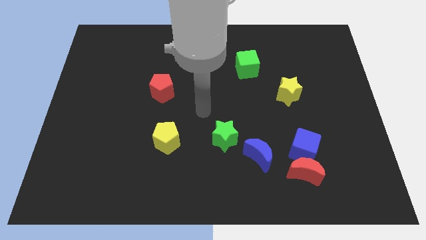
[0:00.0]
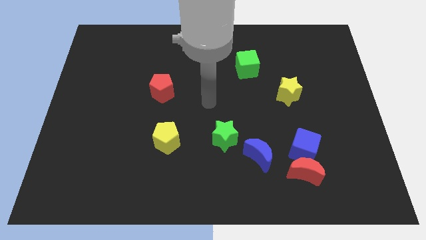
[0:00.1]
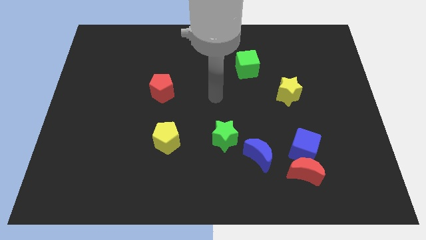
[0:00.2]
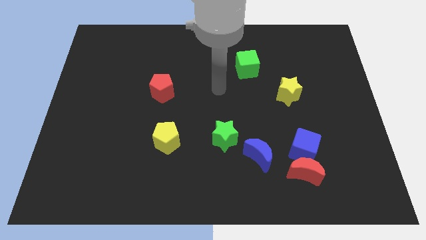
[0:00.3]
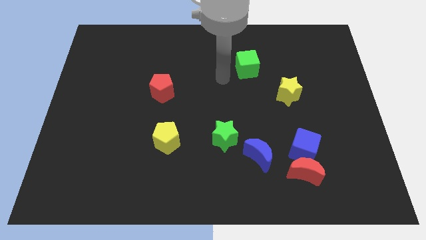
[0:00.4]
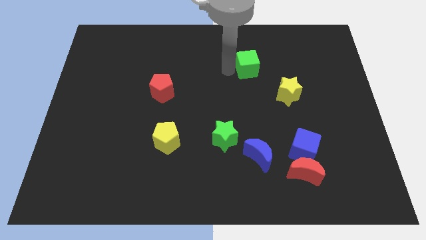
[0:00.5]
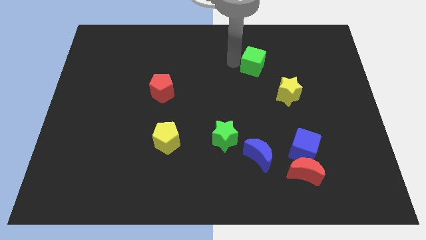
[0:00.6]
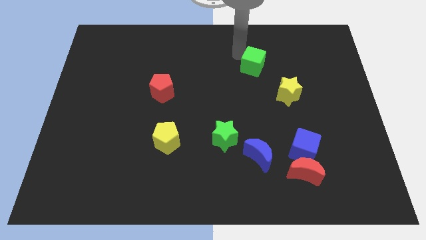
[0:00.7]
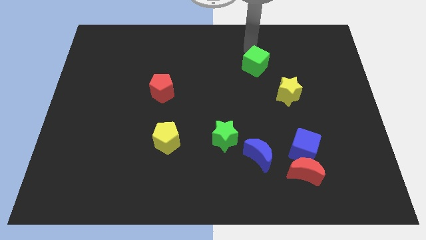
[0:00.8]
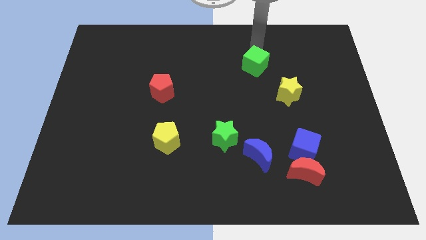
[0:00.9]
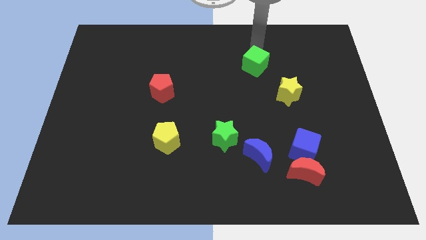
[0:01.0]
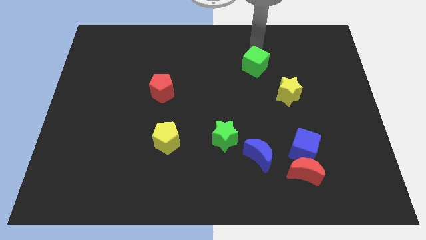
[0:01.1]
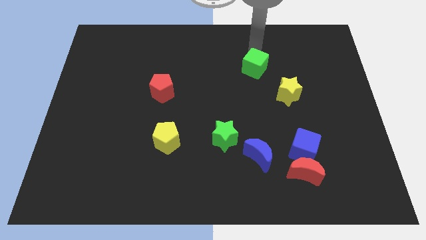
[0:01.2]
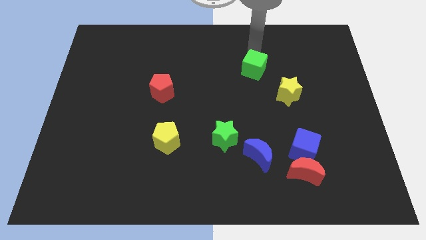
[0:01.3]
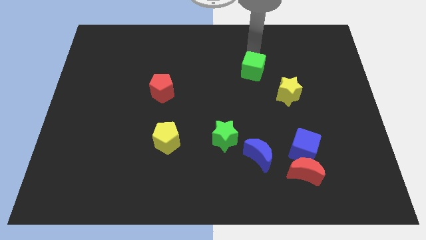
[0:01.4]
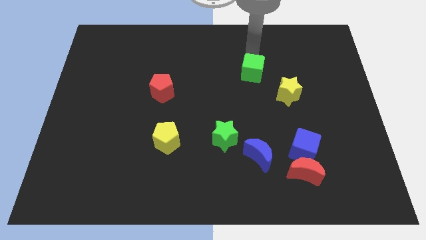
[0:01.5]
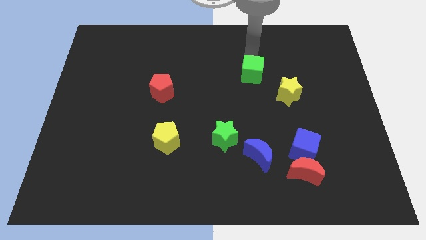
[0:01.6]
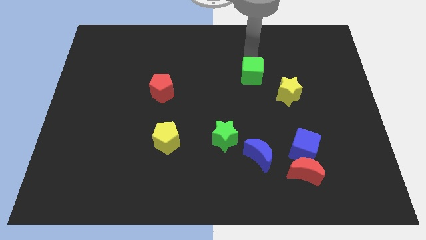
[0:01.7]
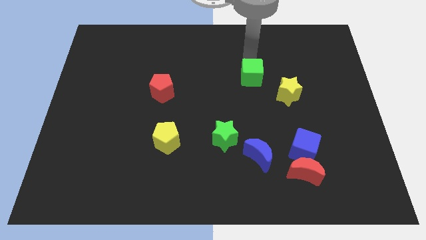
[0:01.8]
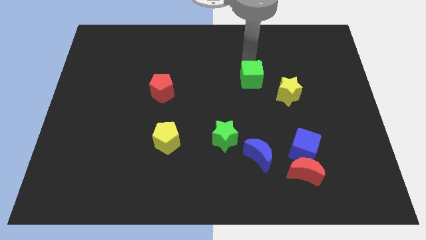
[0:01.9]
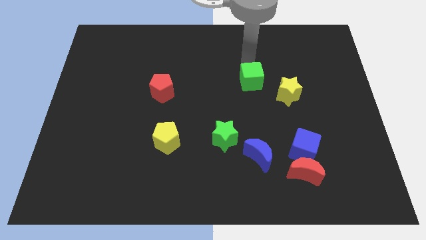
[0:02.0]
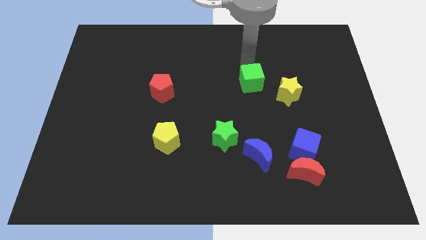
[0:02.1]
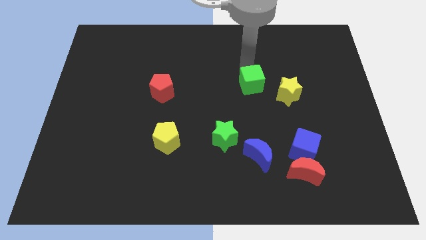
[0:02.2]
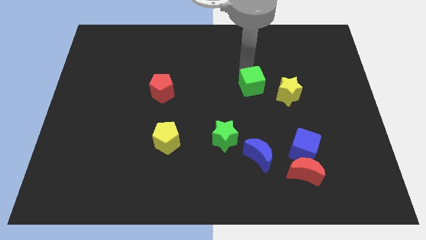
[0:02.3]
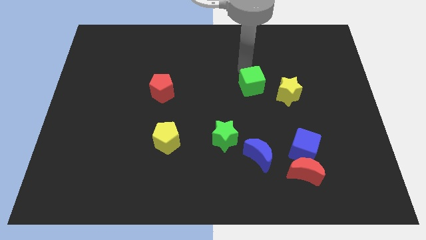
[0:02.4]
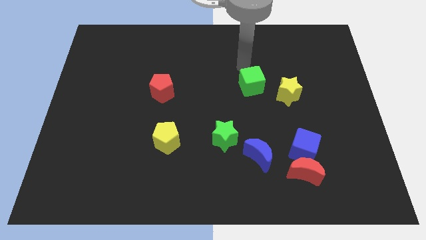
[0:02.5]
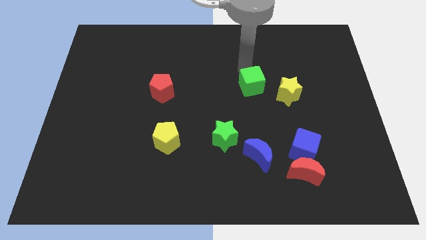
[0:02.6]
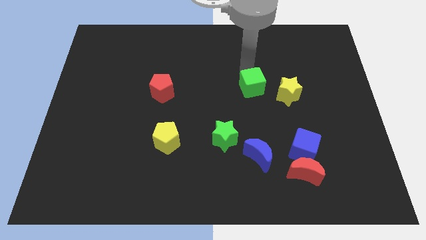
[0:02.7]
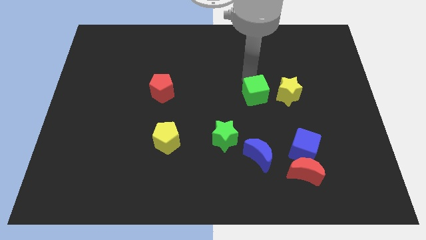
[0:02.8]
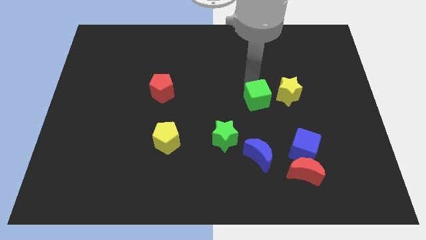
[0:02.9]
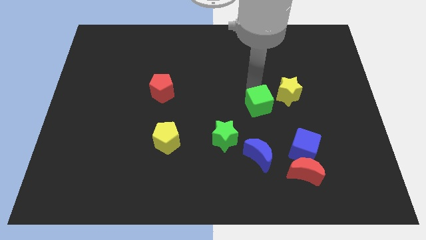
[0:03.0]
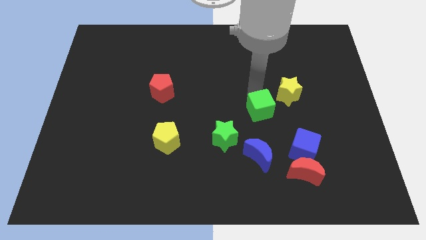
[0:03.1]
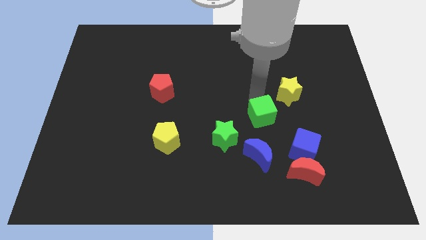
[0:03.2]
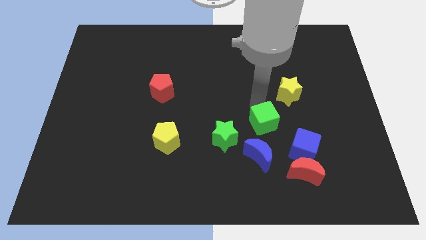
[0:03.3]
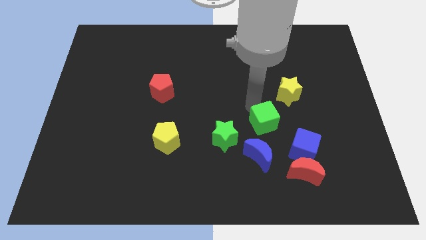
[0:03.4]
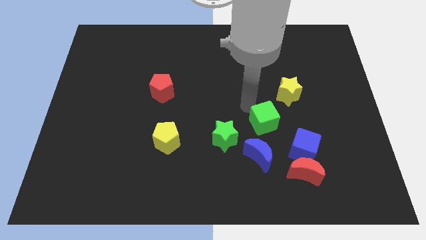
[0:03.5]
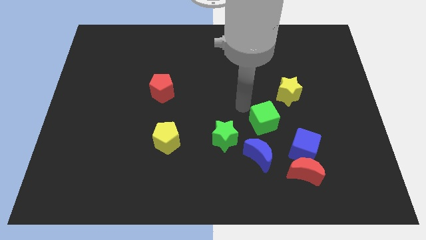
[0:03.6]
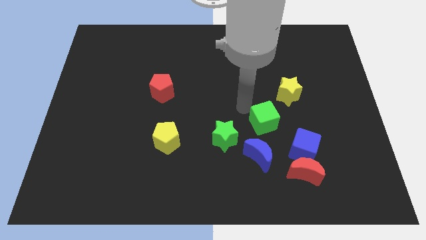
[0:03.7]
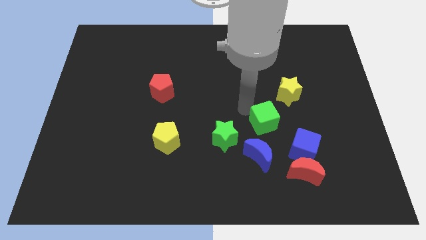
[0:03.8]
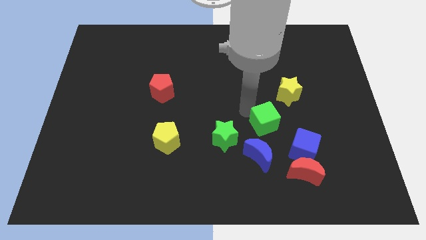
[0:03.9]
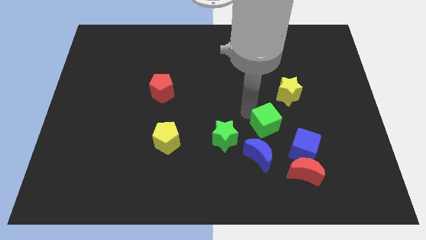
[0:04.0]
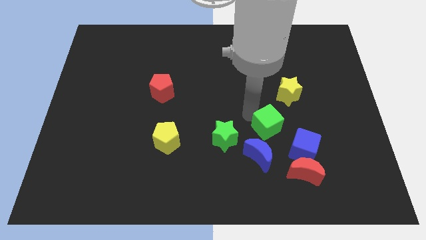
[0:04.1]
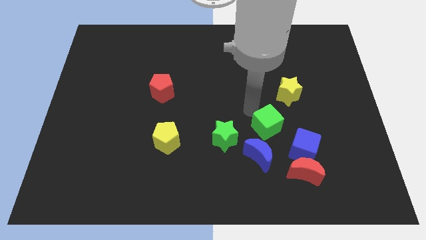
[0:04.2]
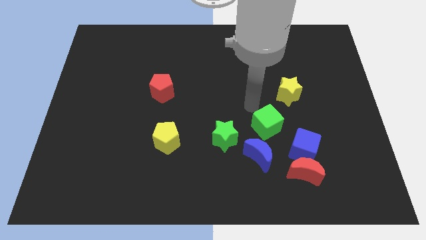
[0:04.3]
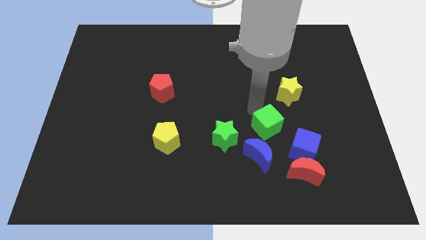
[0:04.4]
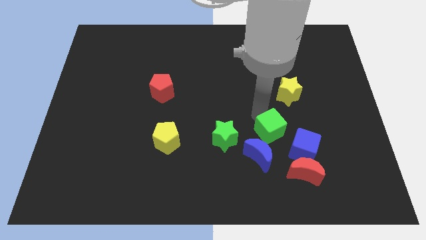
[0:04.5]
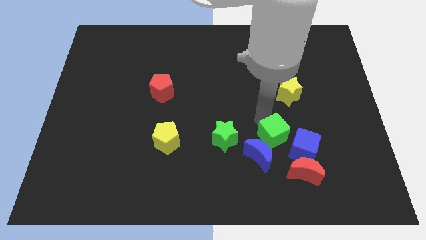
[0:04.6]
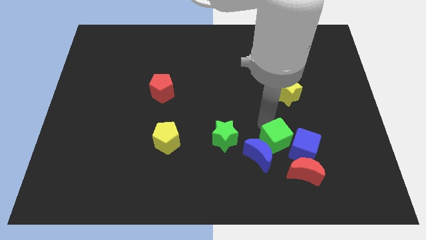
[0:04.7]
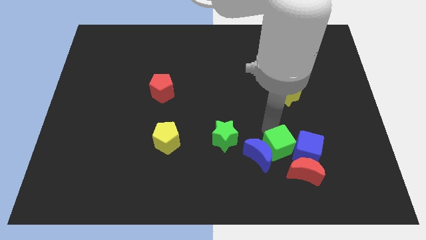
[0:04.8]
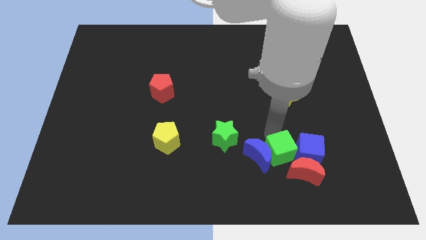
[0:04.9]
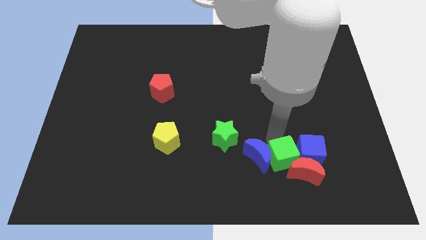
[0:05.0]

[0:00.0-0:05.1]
slide the green cube to the red moon

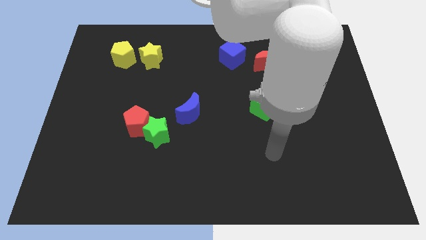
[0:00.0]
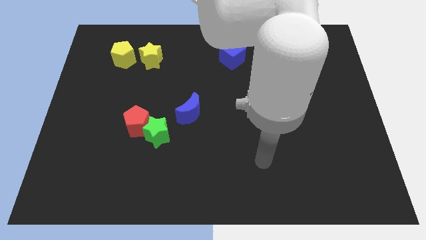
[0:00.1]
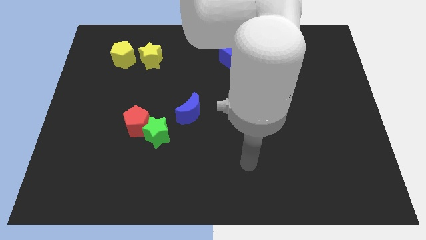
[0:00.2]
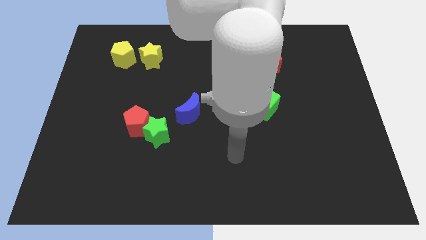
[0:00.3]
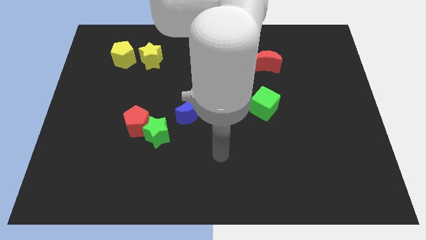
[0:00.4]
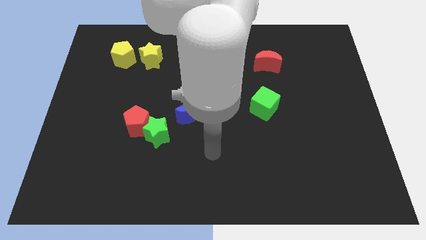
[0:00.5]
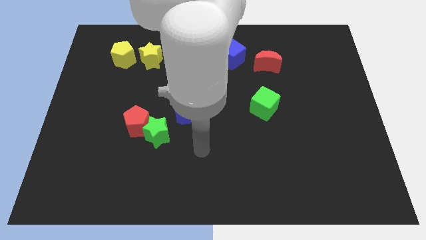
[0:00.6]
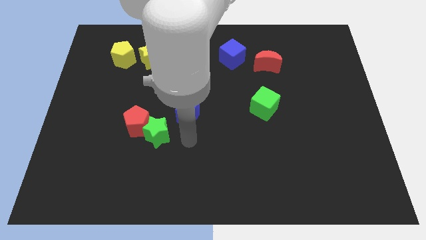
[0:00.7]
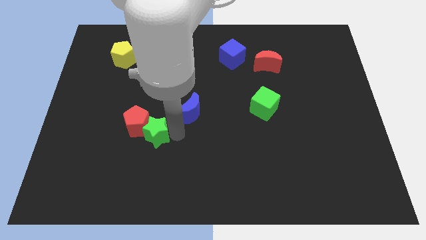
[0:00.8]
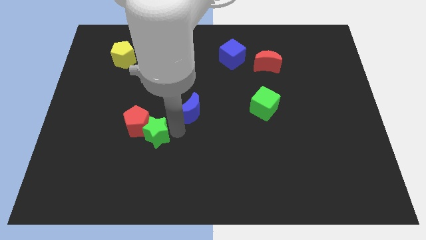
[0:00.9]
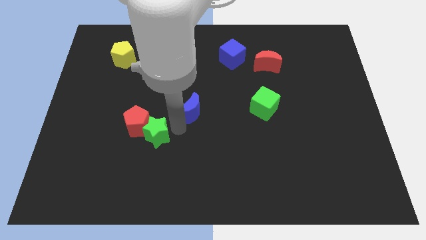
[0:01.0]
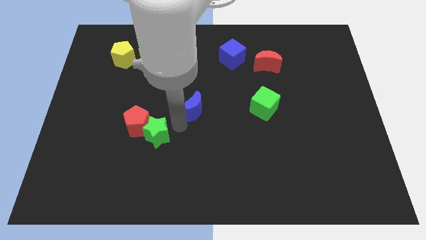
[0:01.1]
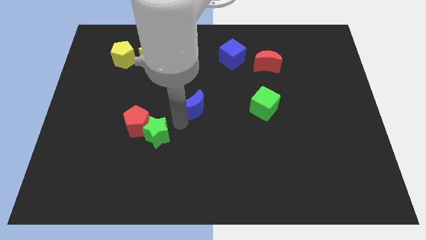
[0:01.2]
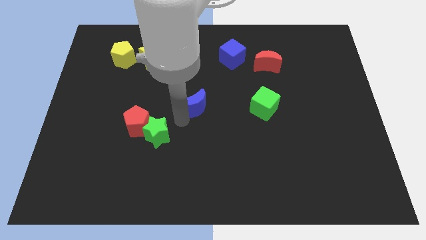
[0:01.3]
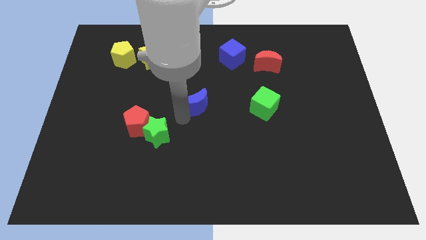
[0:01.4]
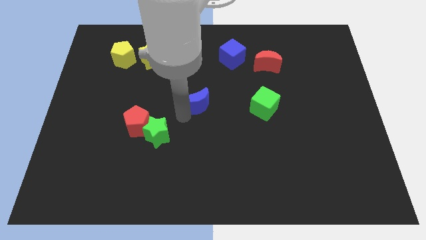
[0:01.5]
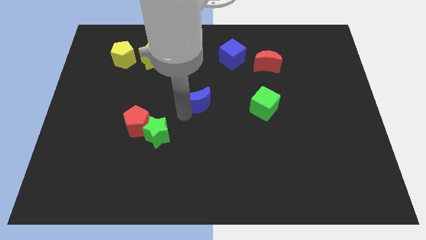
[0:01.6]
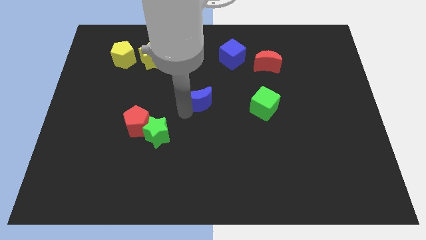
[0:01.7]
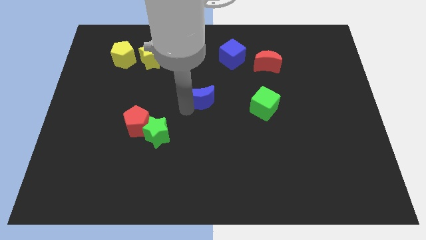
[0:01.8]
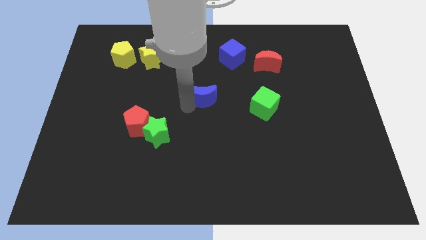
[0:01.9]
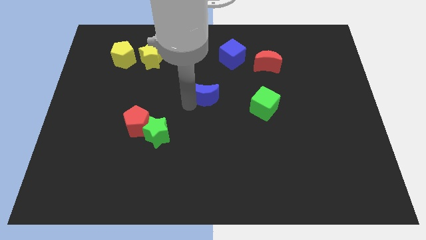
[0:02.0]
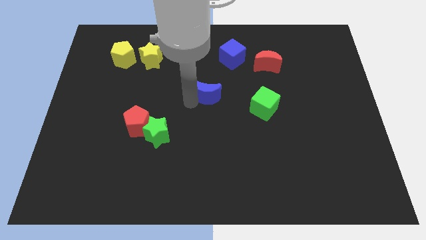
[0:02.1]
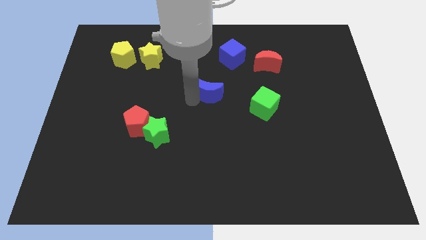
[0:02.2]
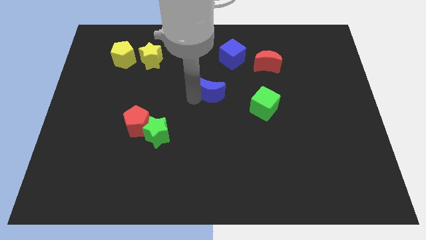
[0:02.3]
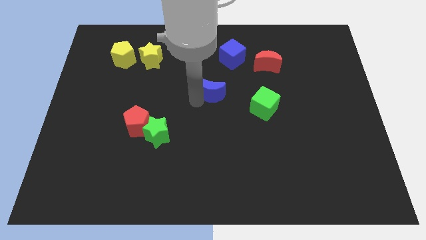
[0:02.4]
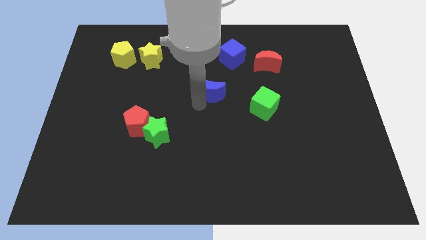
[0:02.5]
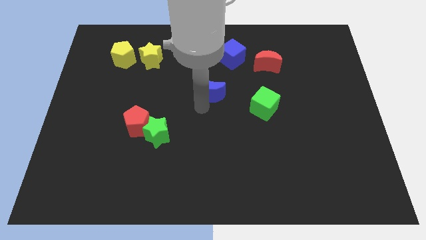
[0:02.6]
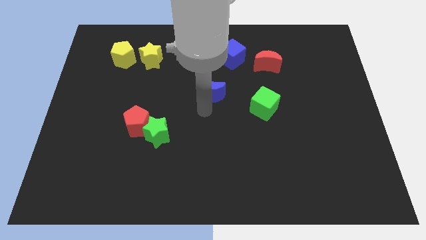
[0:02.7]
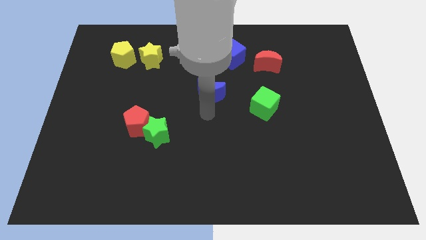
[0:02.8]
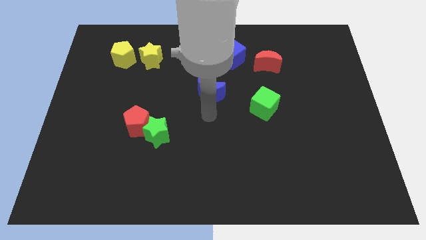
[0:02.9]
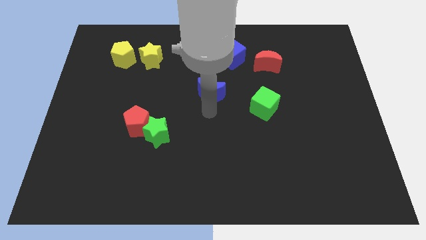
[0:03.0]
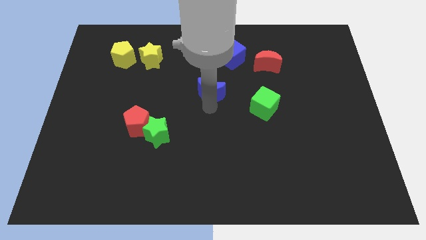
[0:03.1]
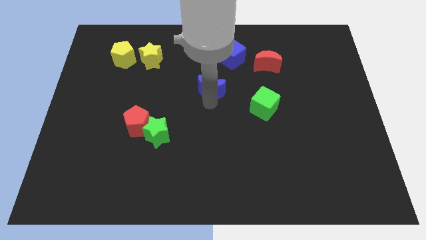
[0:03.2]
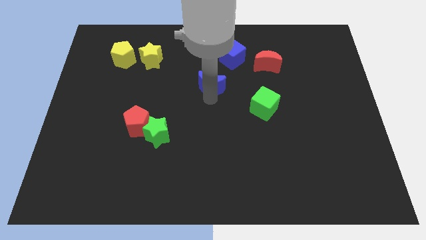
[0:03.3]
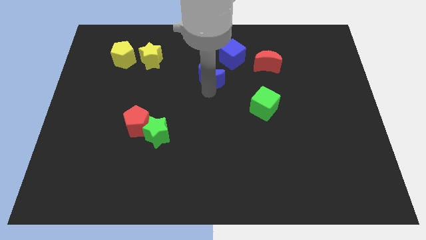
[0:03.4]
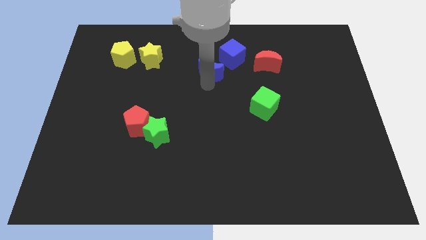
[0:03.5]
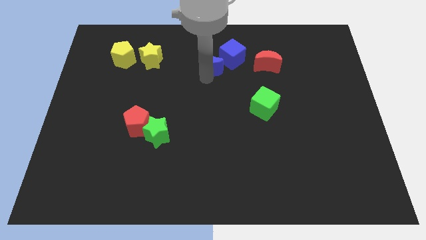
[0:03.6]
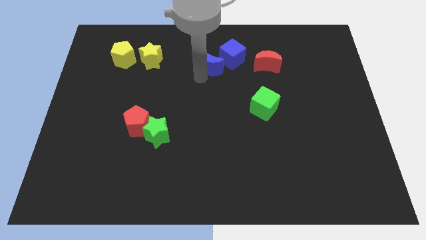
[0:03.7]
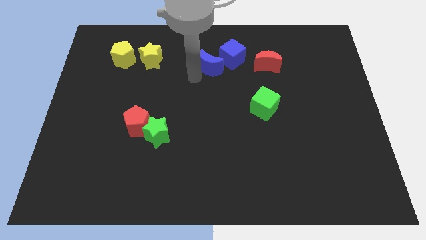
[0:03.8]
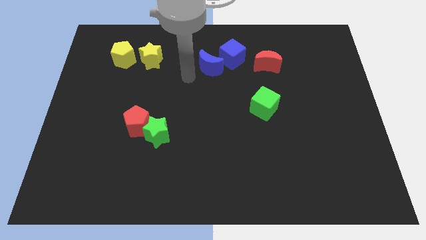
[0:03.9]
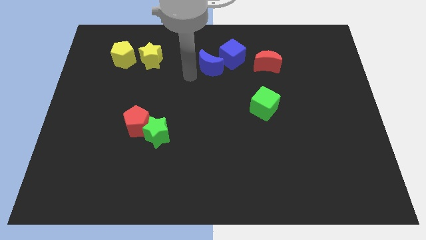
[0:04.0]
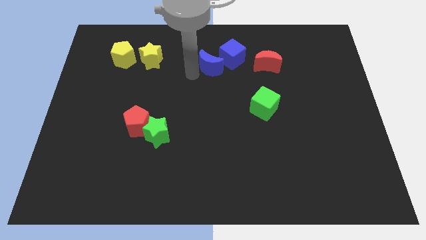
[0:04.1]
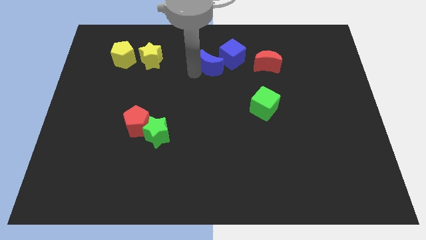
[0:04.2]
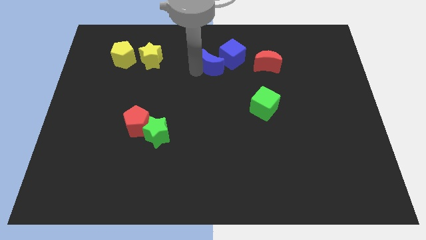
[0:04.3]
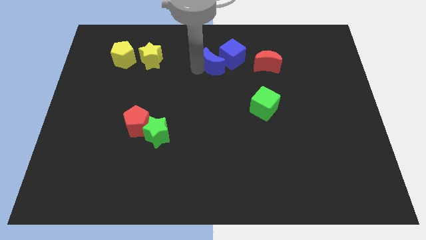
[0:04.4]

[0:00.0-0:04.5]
move the blue moon to the blue cube
